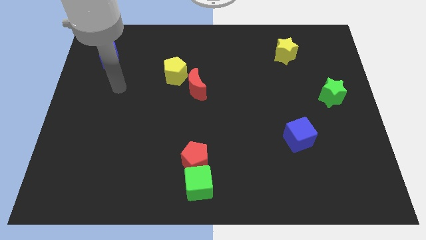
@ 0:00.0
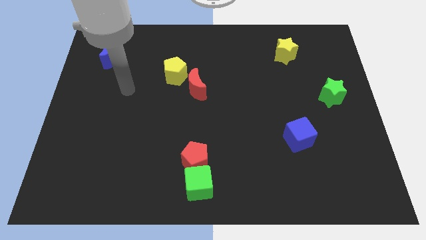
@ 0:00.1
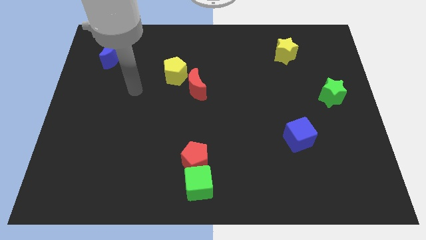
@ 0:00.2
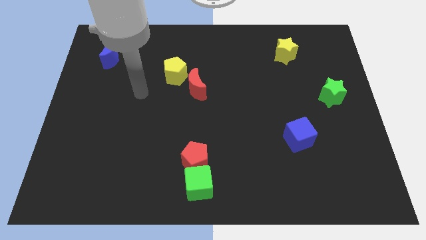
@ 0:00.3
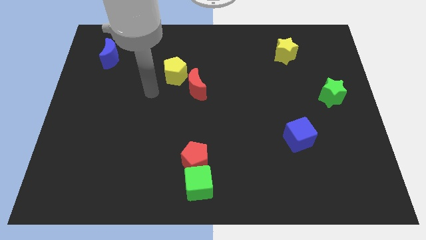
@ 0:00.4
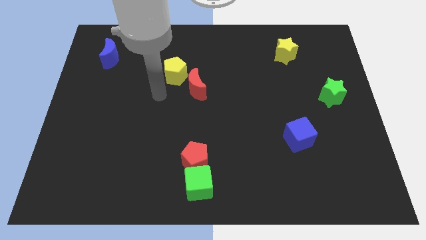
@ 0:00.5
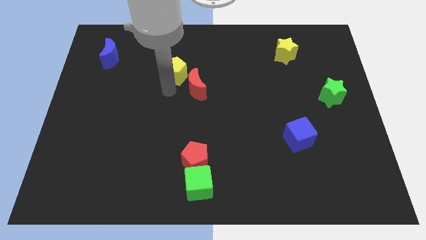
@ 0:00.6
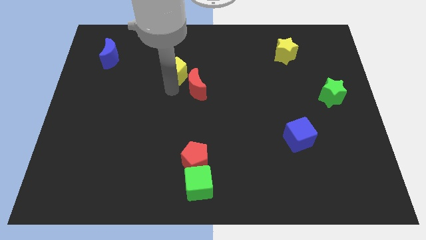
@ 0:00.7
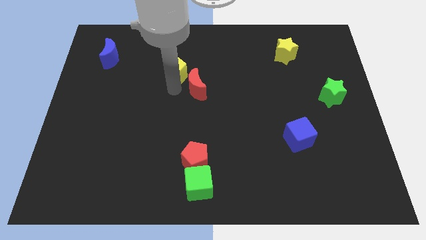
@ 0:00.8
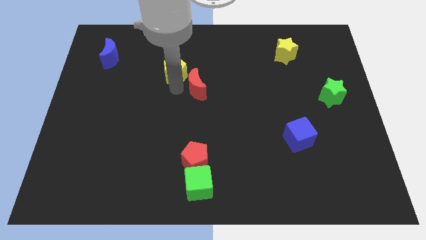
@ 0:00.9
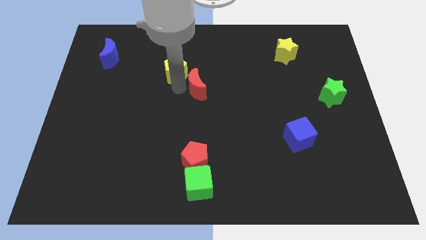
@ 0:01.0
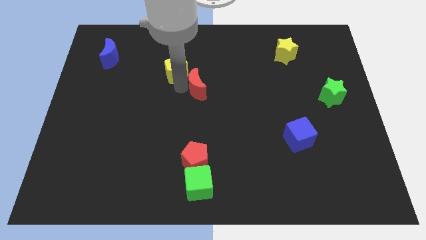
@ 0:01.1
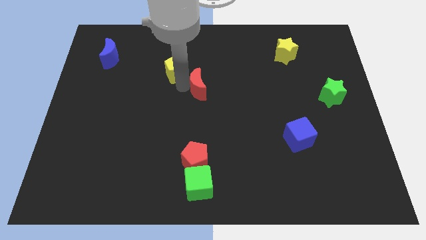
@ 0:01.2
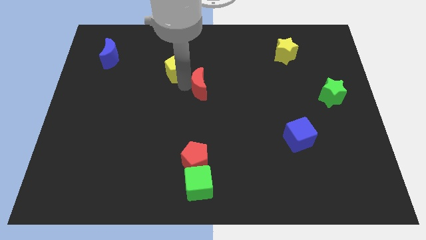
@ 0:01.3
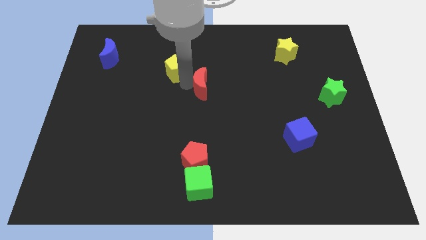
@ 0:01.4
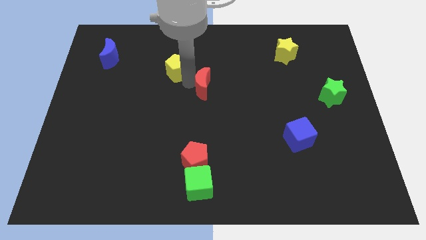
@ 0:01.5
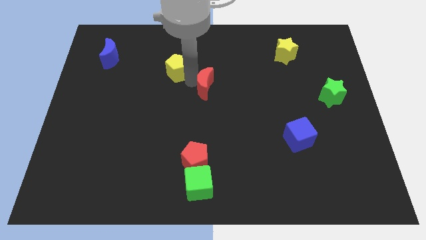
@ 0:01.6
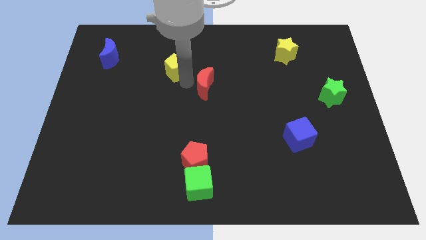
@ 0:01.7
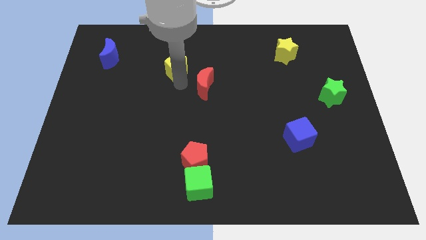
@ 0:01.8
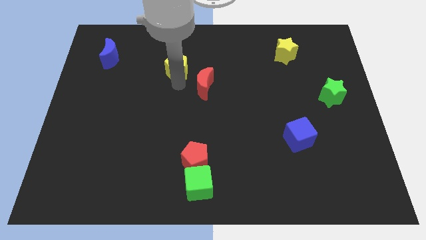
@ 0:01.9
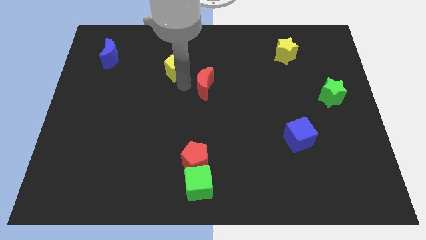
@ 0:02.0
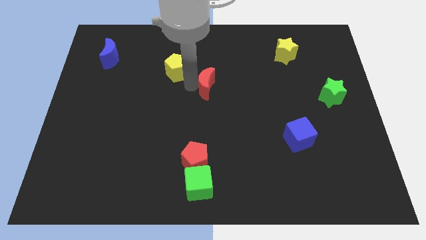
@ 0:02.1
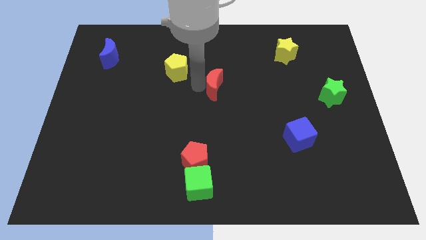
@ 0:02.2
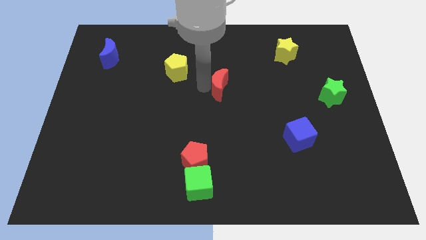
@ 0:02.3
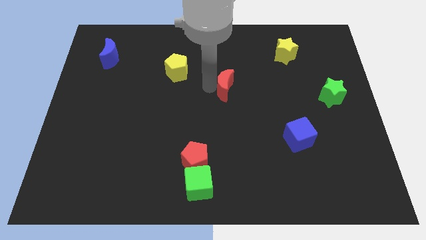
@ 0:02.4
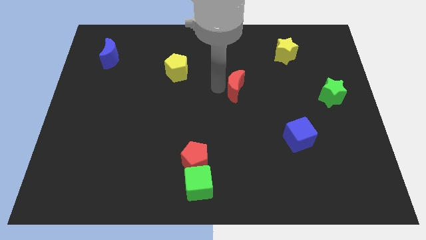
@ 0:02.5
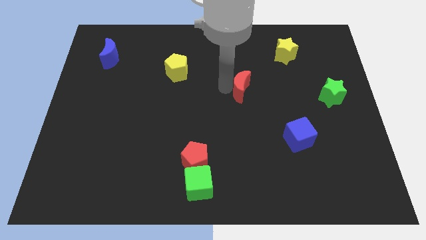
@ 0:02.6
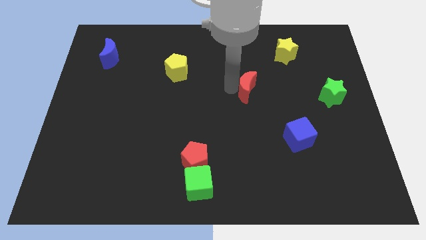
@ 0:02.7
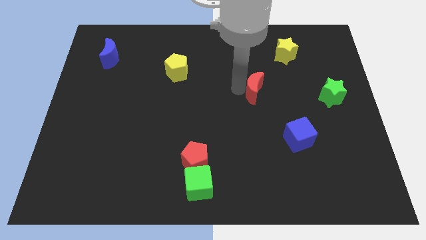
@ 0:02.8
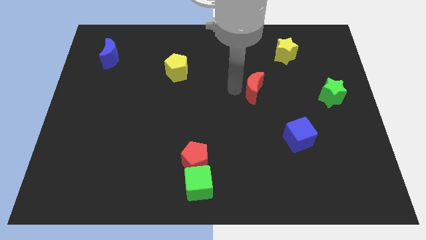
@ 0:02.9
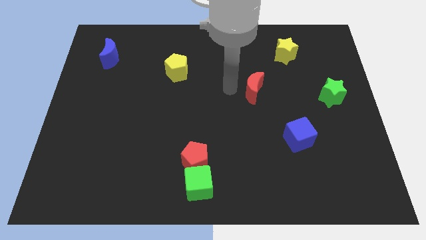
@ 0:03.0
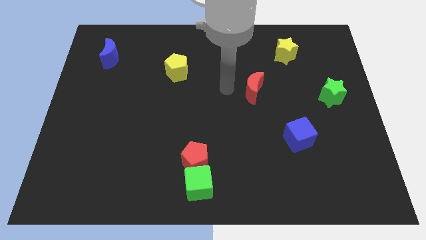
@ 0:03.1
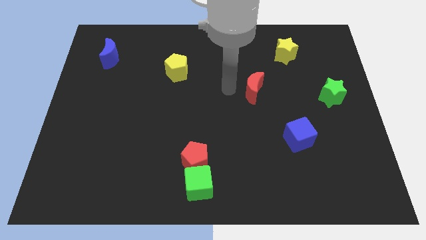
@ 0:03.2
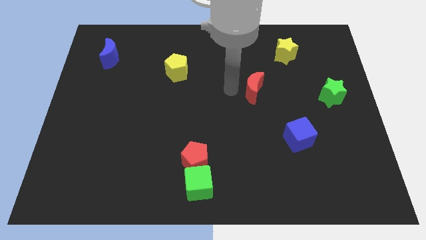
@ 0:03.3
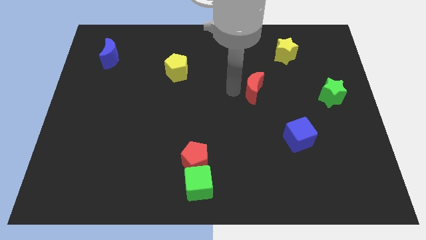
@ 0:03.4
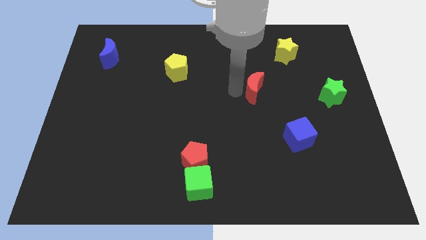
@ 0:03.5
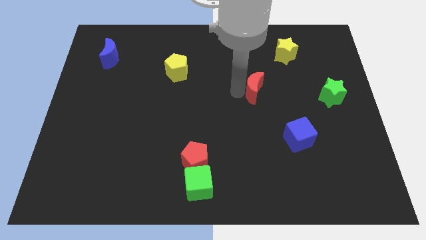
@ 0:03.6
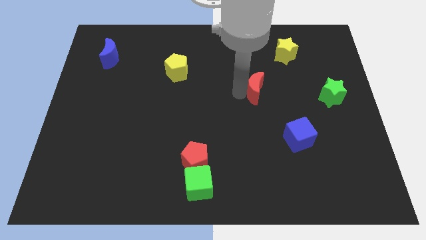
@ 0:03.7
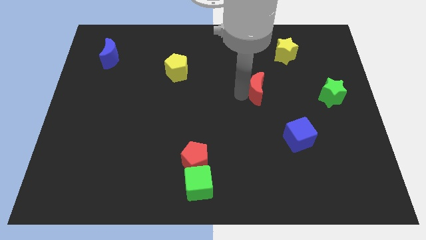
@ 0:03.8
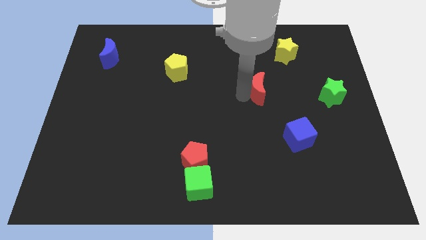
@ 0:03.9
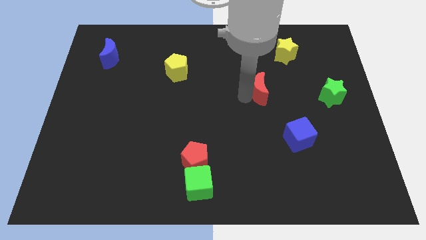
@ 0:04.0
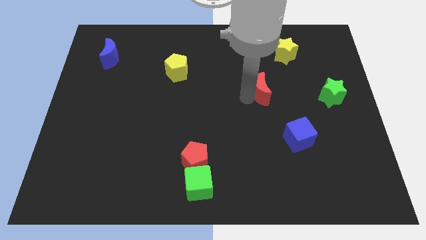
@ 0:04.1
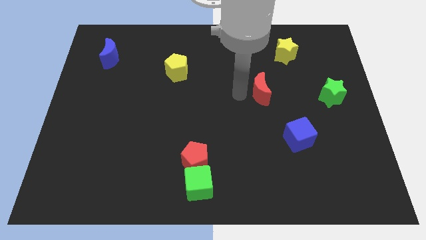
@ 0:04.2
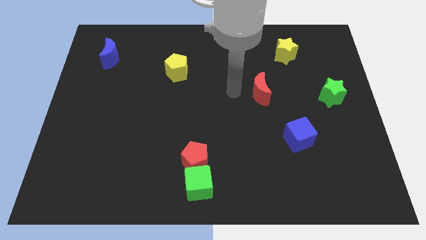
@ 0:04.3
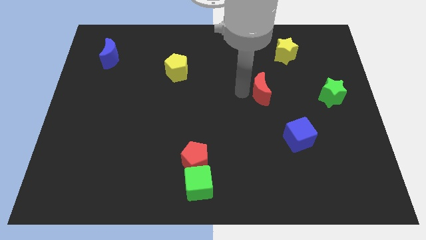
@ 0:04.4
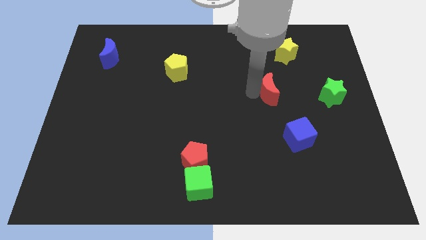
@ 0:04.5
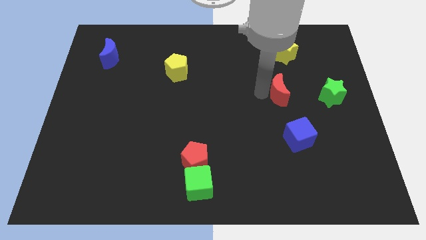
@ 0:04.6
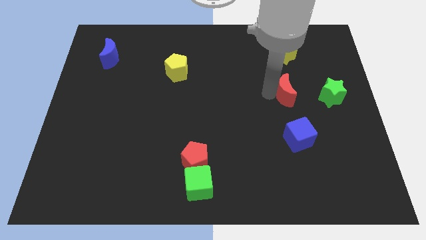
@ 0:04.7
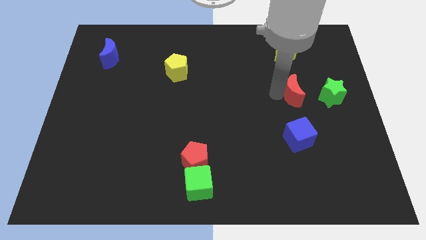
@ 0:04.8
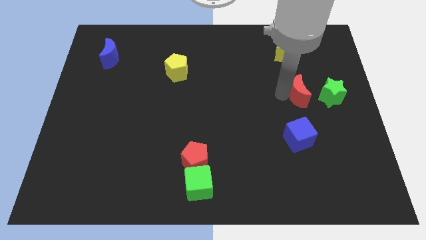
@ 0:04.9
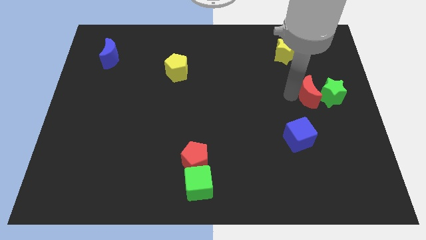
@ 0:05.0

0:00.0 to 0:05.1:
put the red moon towards the green star

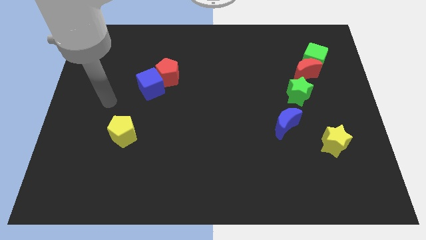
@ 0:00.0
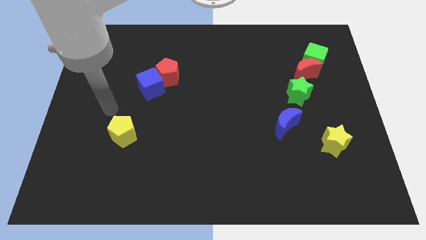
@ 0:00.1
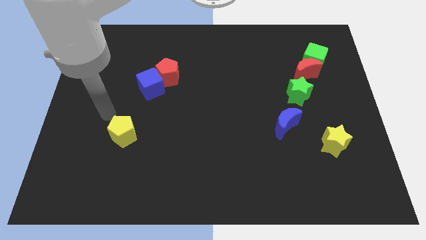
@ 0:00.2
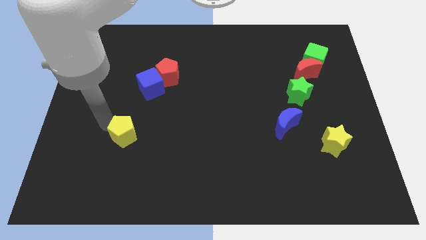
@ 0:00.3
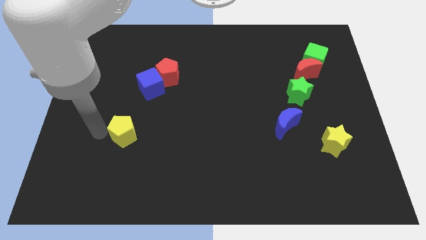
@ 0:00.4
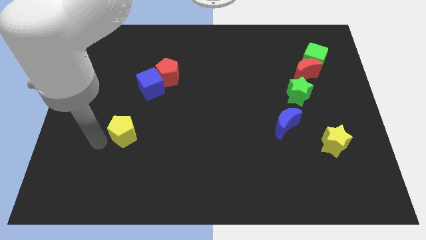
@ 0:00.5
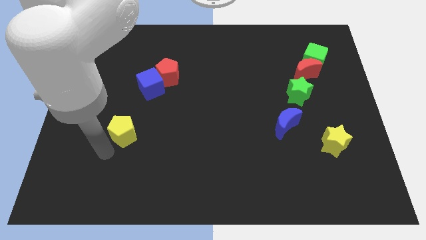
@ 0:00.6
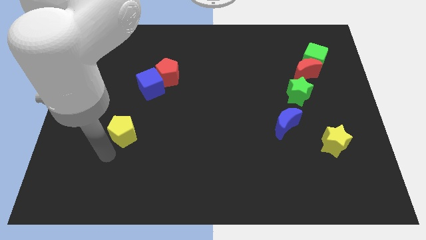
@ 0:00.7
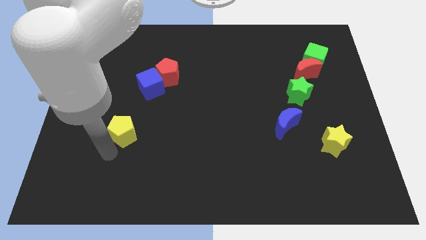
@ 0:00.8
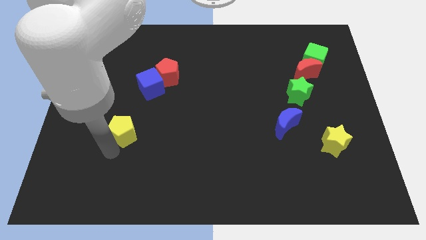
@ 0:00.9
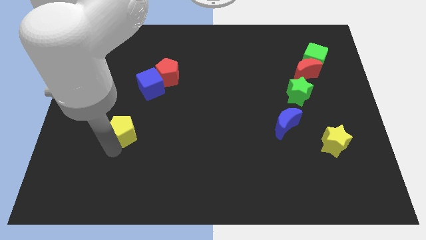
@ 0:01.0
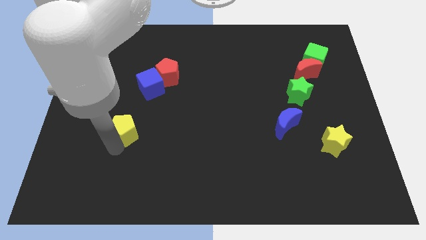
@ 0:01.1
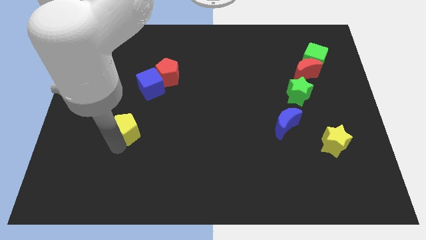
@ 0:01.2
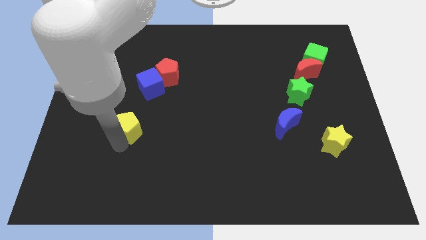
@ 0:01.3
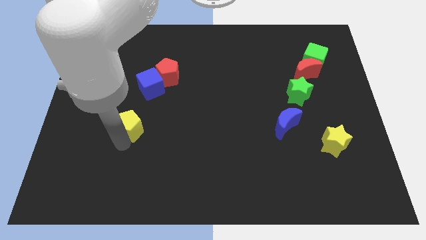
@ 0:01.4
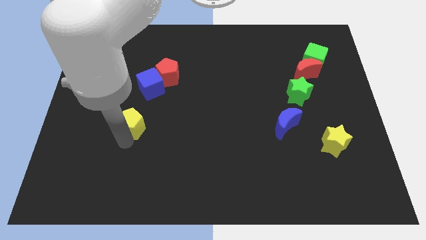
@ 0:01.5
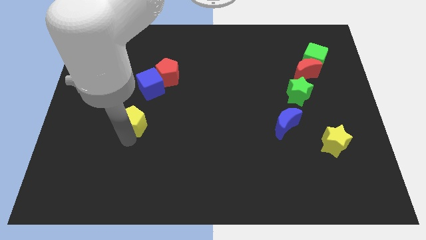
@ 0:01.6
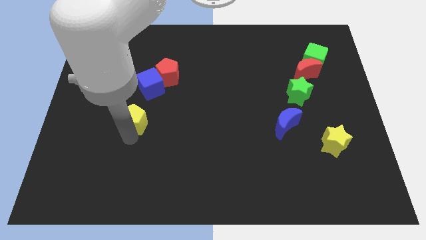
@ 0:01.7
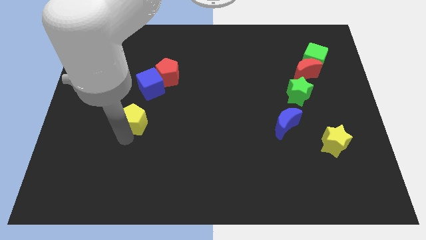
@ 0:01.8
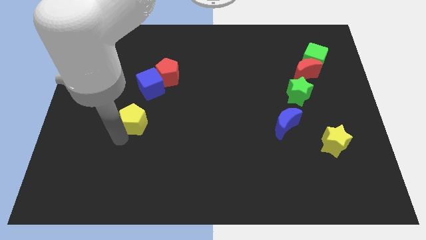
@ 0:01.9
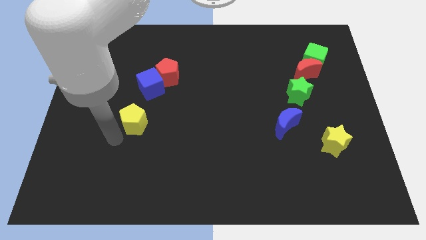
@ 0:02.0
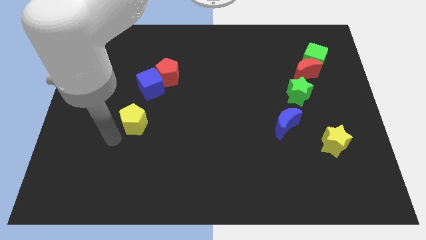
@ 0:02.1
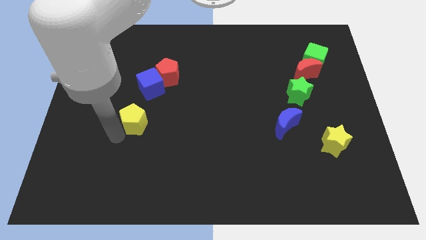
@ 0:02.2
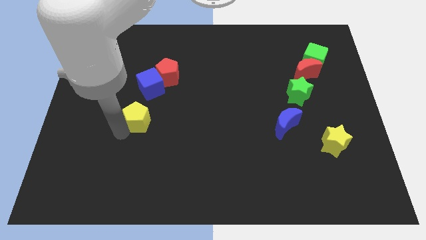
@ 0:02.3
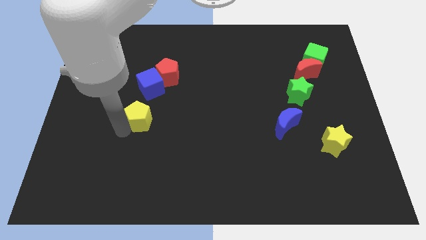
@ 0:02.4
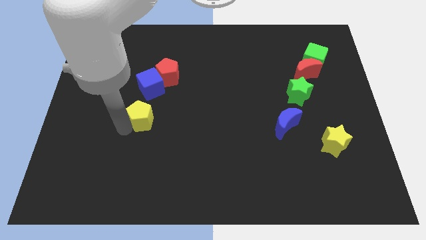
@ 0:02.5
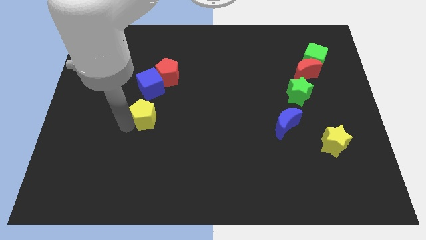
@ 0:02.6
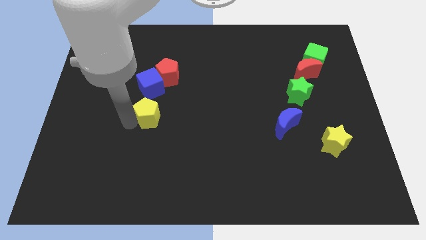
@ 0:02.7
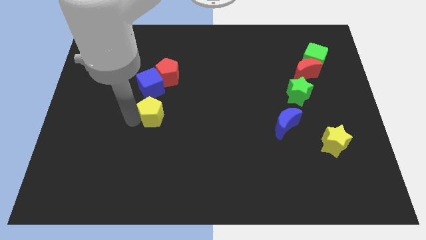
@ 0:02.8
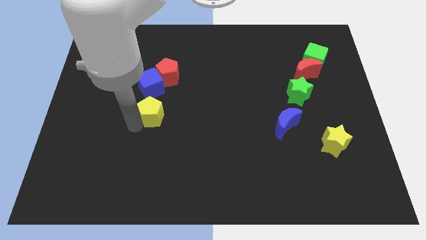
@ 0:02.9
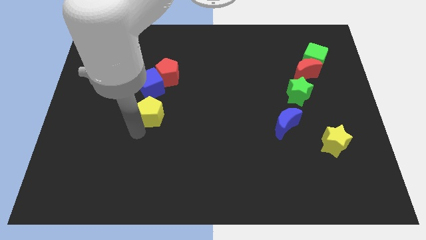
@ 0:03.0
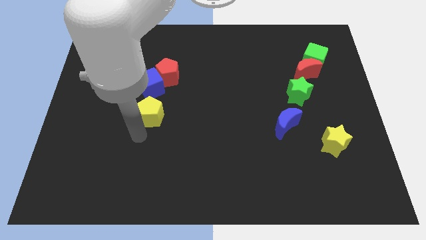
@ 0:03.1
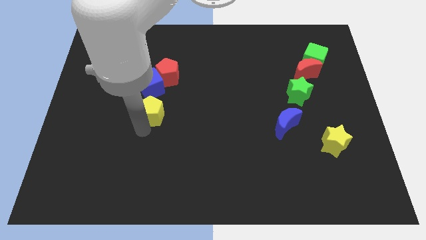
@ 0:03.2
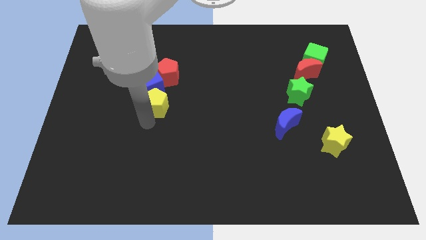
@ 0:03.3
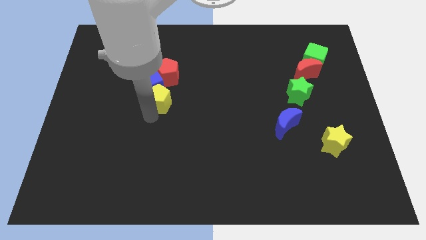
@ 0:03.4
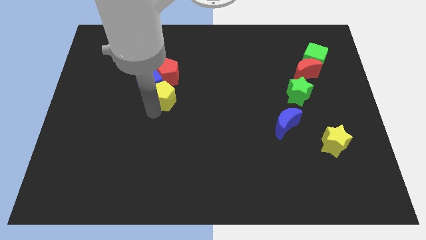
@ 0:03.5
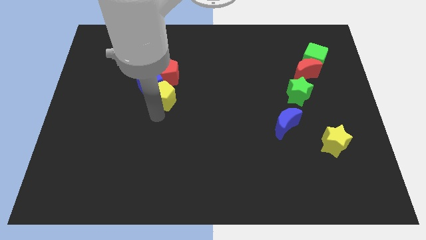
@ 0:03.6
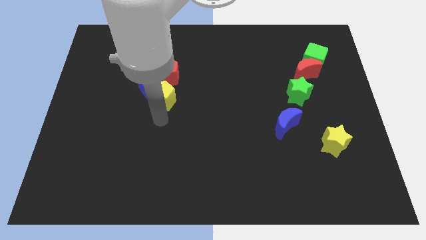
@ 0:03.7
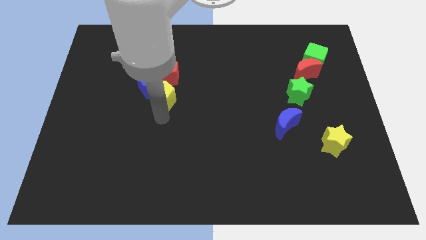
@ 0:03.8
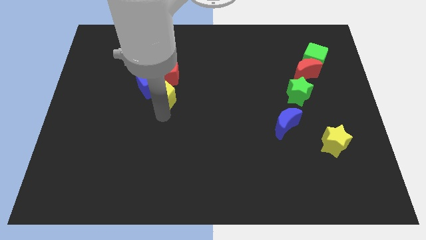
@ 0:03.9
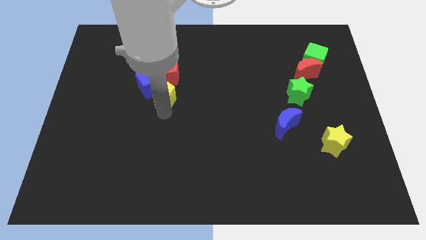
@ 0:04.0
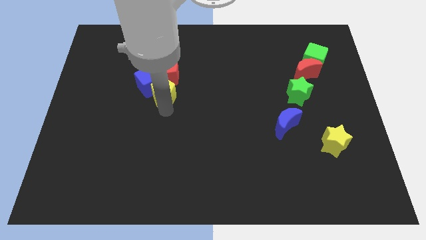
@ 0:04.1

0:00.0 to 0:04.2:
put the yellow pentagon next to the red pentagon
